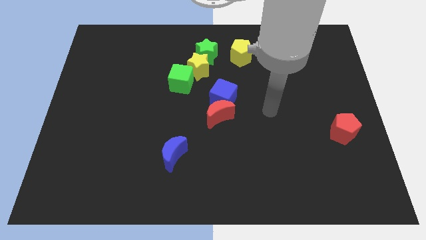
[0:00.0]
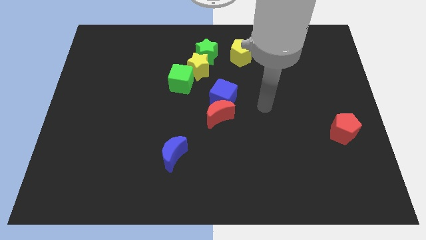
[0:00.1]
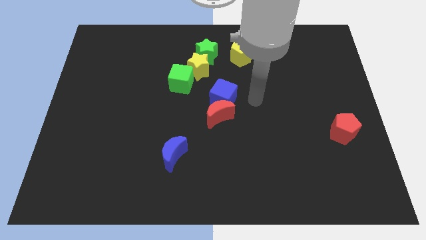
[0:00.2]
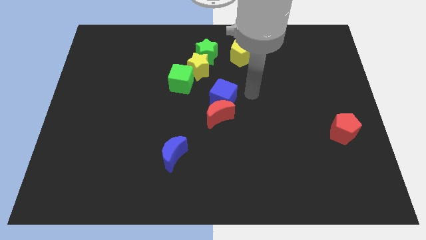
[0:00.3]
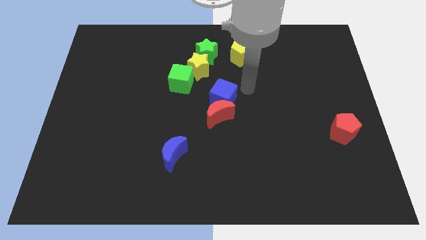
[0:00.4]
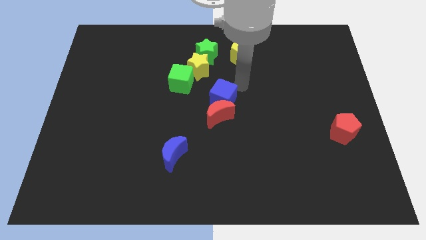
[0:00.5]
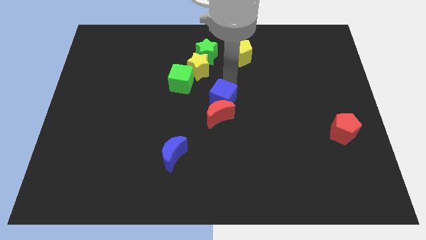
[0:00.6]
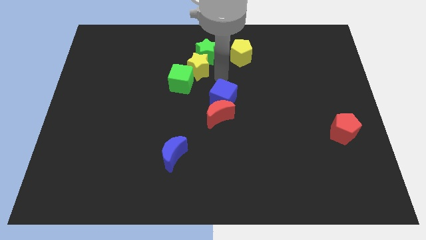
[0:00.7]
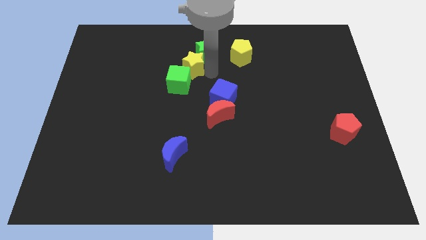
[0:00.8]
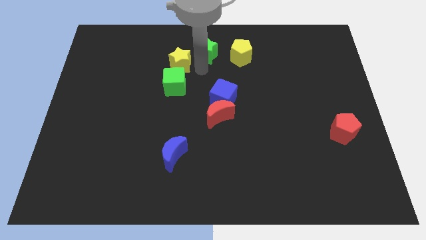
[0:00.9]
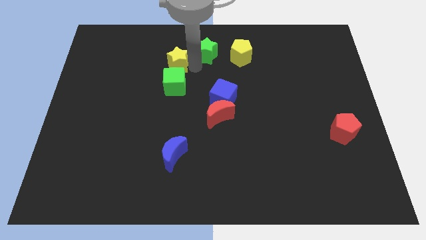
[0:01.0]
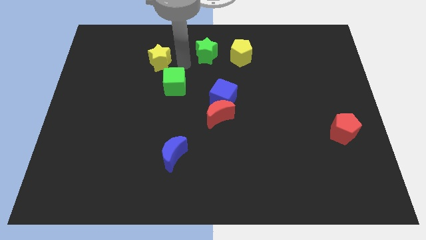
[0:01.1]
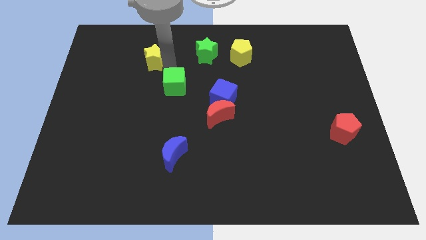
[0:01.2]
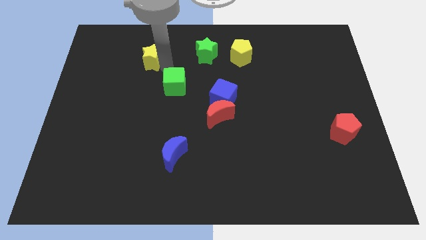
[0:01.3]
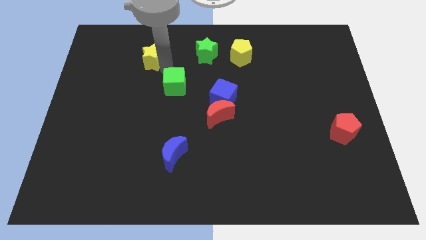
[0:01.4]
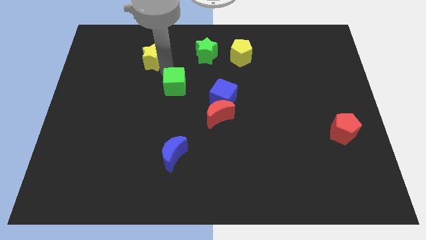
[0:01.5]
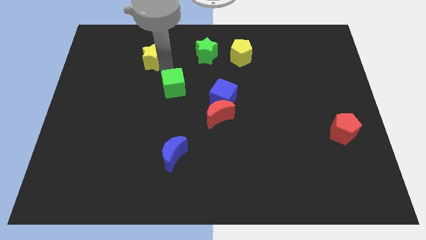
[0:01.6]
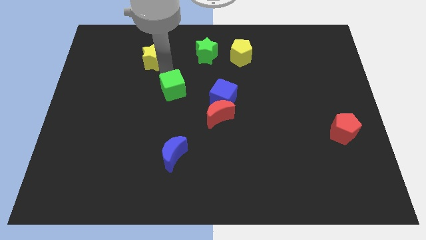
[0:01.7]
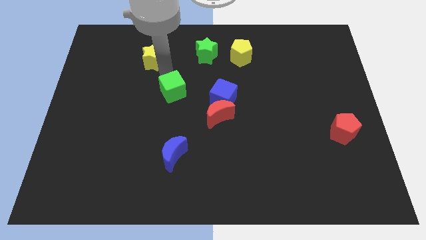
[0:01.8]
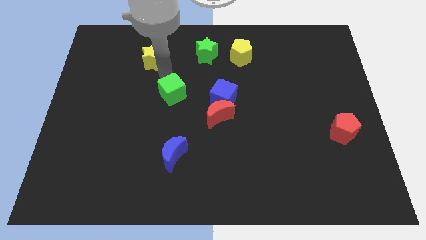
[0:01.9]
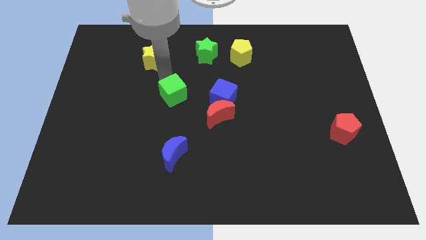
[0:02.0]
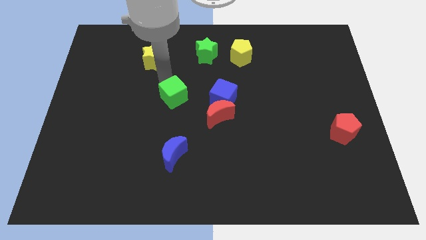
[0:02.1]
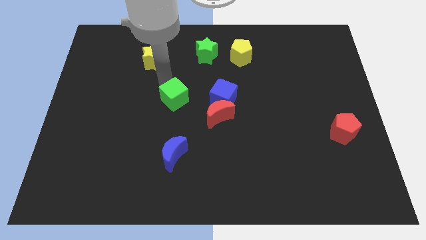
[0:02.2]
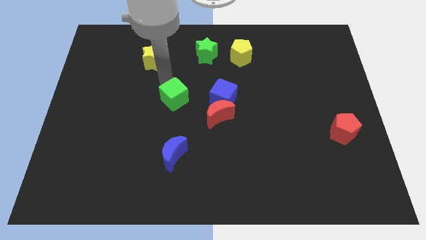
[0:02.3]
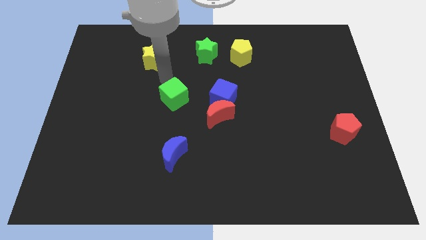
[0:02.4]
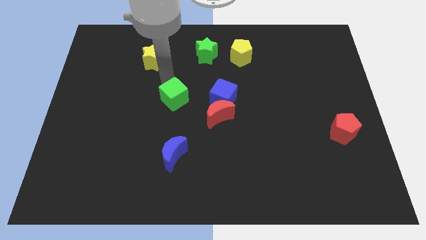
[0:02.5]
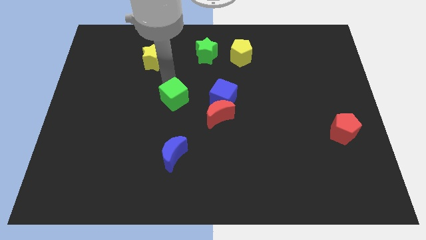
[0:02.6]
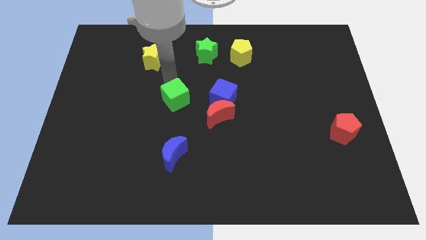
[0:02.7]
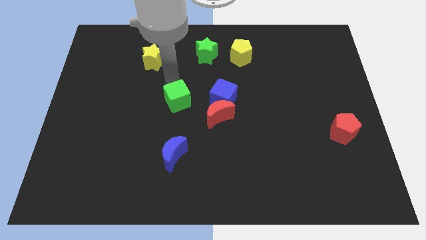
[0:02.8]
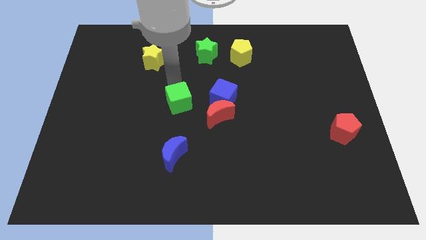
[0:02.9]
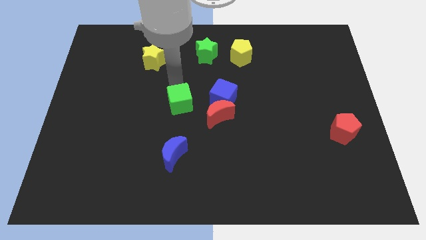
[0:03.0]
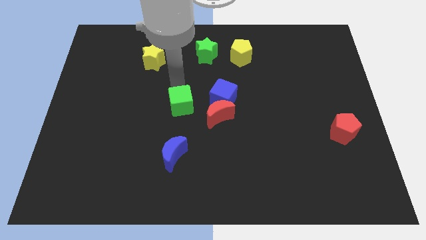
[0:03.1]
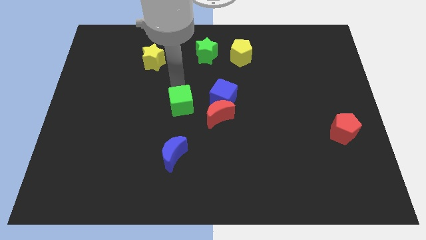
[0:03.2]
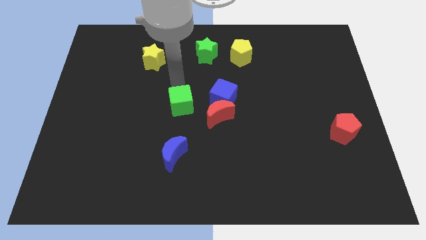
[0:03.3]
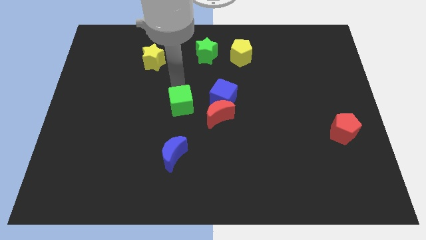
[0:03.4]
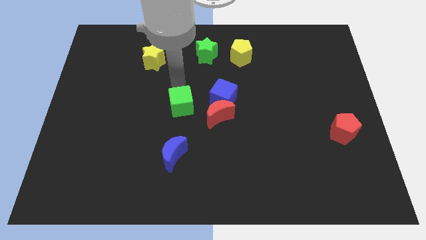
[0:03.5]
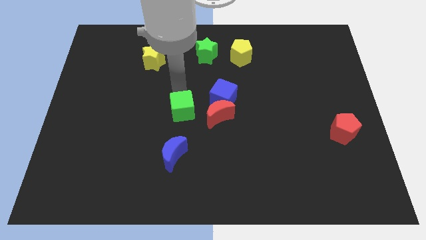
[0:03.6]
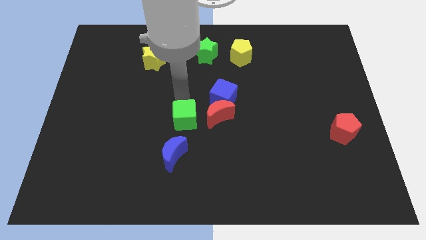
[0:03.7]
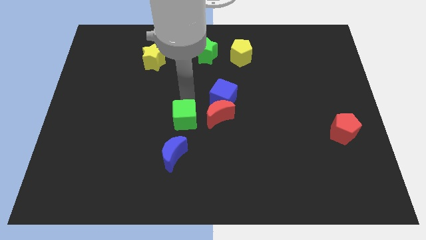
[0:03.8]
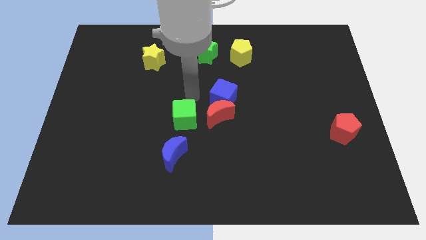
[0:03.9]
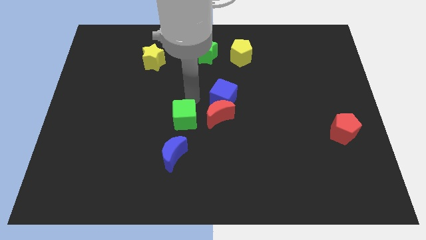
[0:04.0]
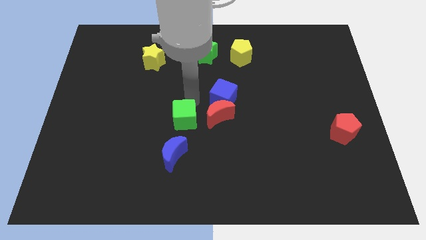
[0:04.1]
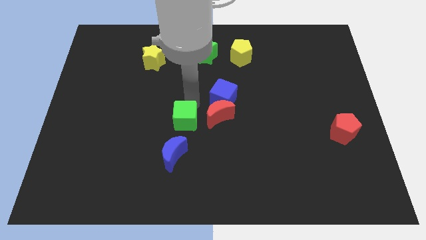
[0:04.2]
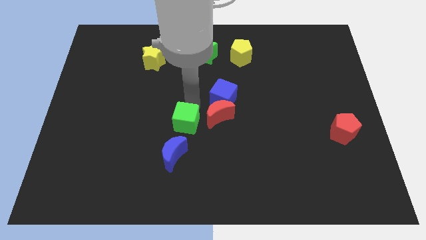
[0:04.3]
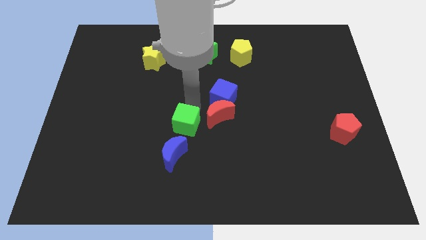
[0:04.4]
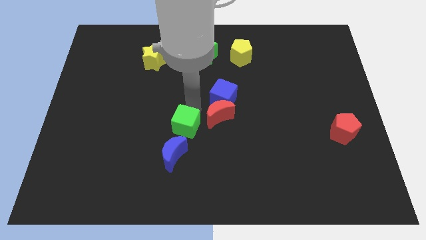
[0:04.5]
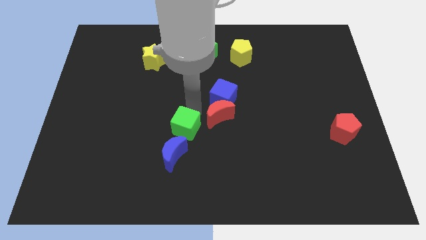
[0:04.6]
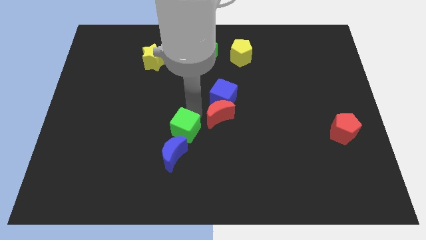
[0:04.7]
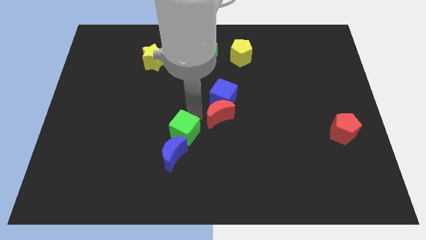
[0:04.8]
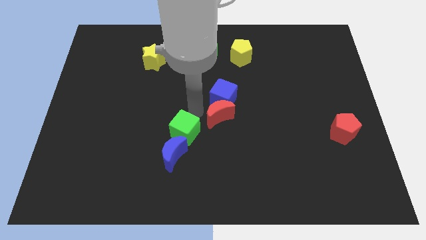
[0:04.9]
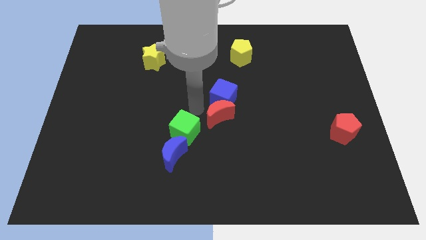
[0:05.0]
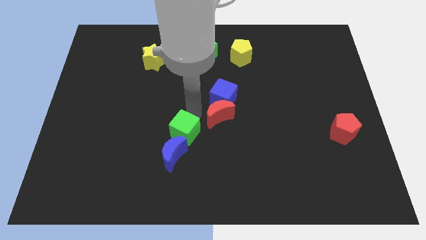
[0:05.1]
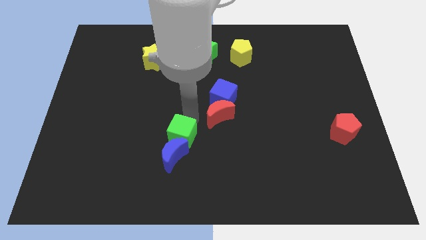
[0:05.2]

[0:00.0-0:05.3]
push the green cube to the blue moon

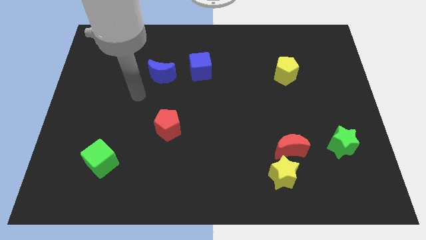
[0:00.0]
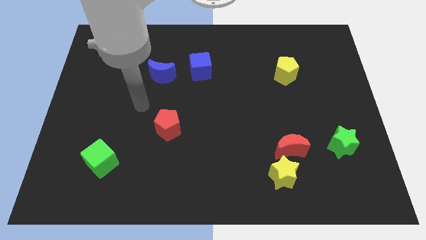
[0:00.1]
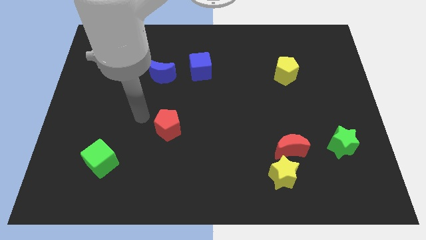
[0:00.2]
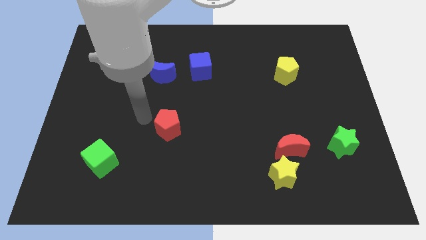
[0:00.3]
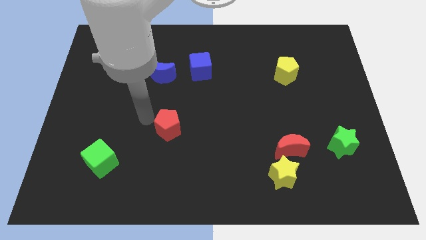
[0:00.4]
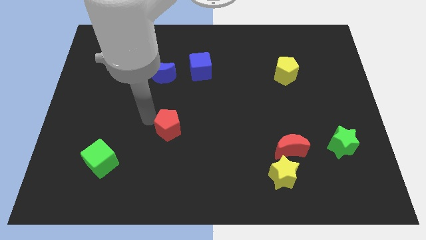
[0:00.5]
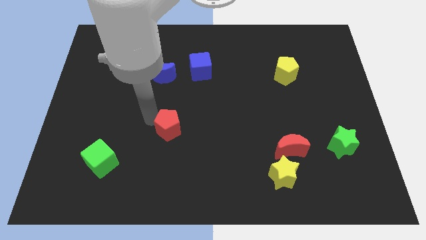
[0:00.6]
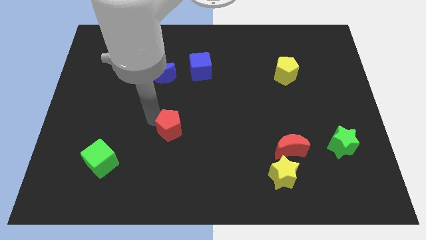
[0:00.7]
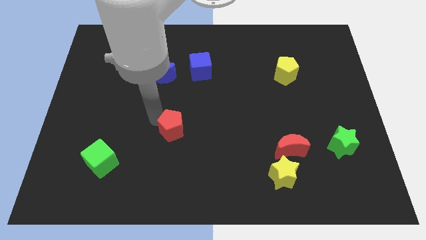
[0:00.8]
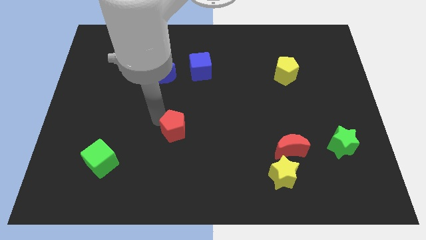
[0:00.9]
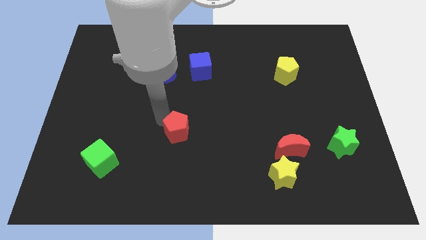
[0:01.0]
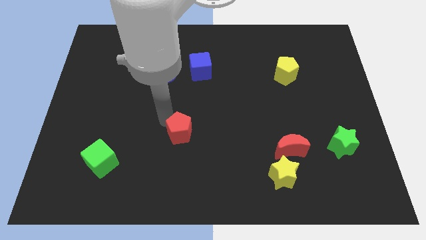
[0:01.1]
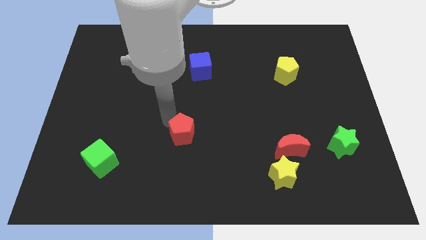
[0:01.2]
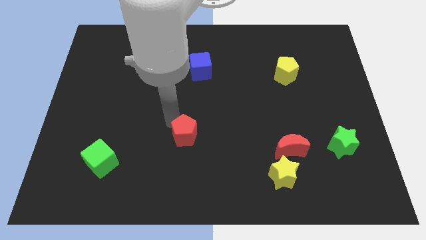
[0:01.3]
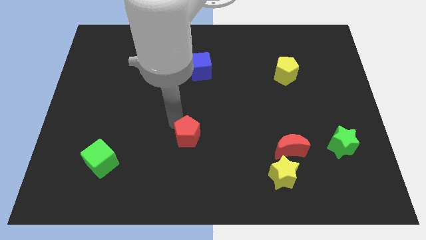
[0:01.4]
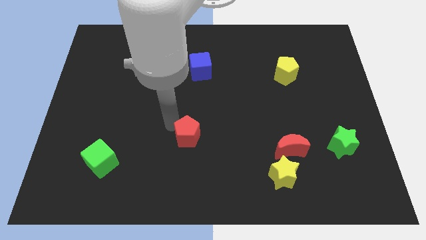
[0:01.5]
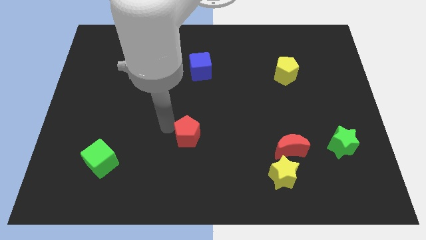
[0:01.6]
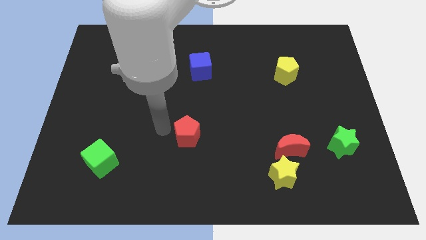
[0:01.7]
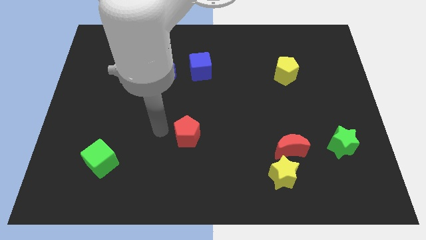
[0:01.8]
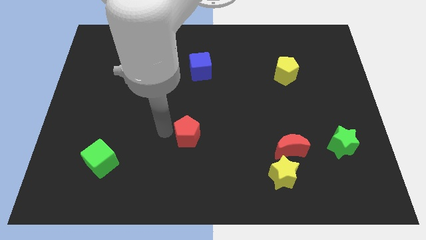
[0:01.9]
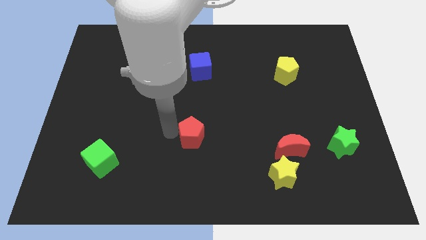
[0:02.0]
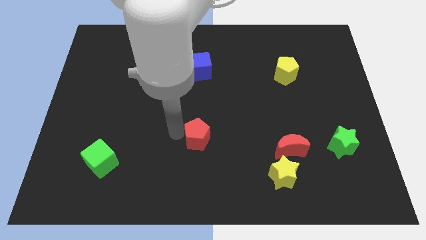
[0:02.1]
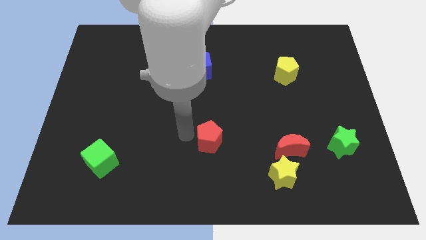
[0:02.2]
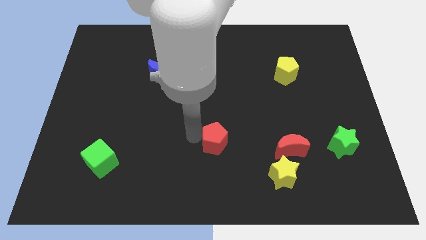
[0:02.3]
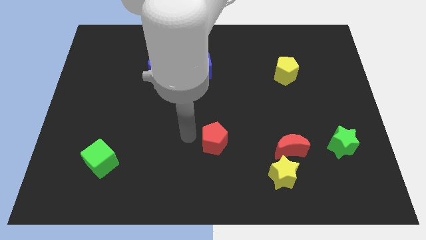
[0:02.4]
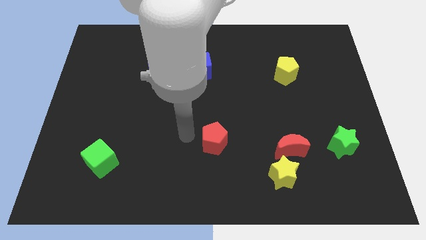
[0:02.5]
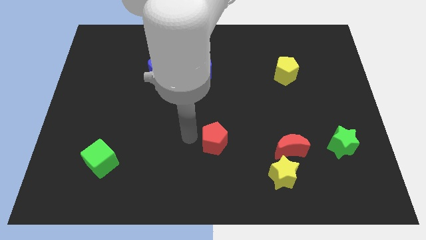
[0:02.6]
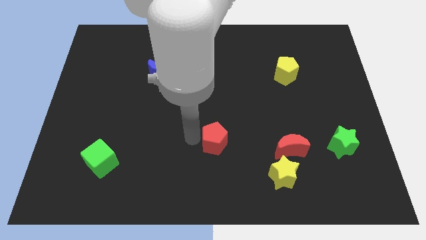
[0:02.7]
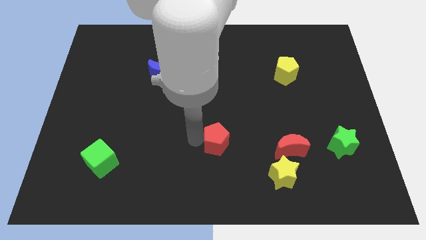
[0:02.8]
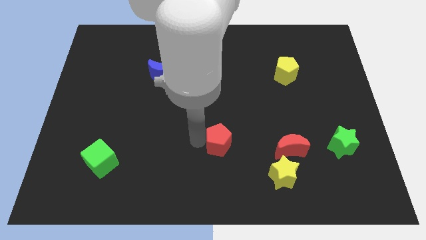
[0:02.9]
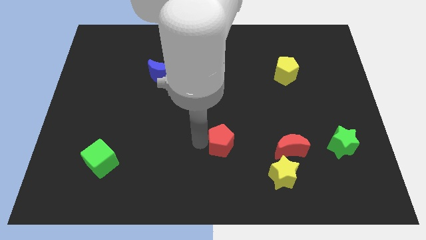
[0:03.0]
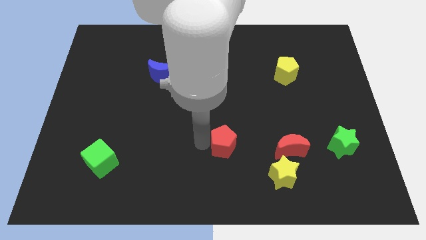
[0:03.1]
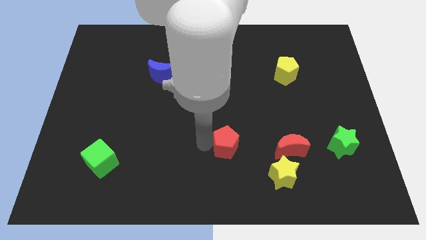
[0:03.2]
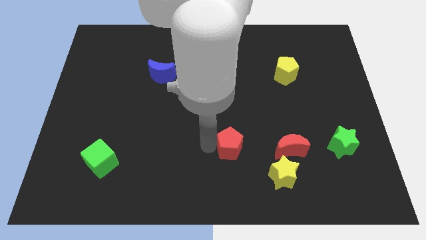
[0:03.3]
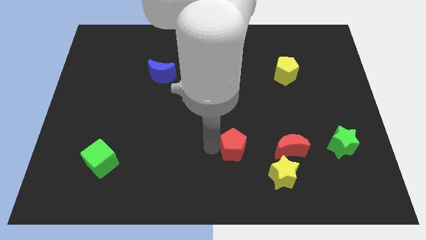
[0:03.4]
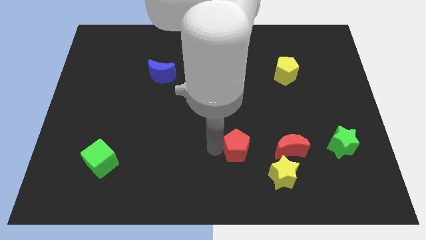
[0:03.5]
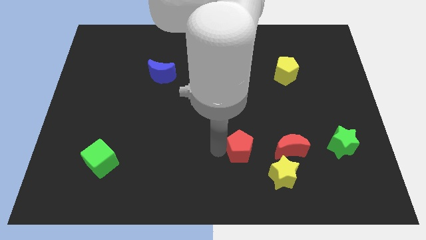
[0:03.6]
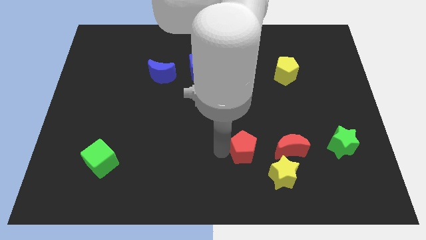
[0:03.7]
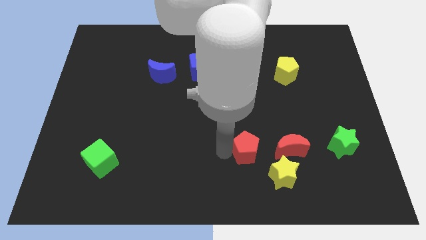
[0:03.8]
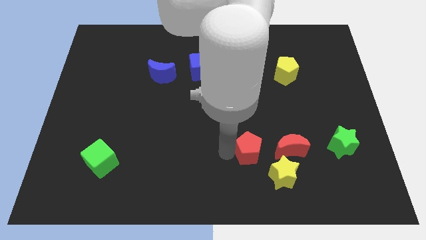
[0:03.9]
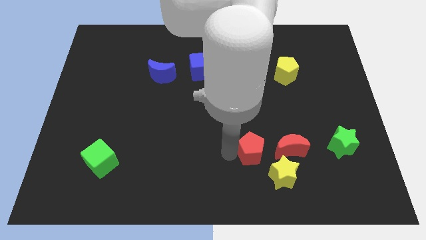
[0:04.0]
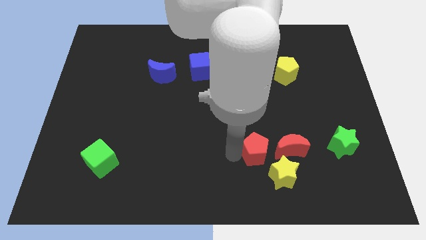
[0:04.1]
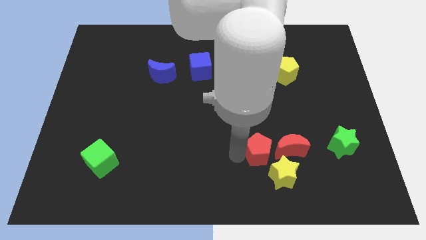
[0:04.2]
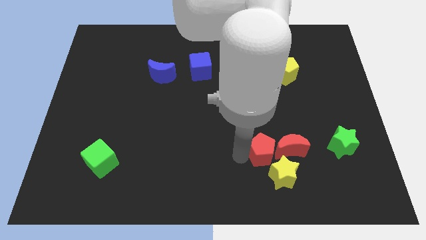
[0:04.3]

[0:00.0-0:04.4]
put the red pentagon next to the red moon
